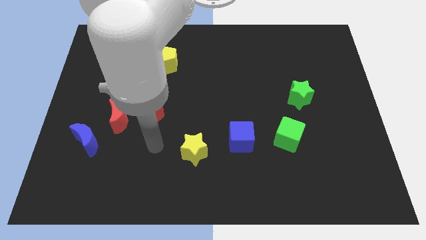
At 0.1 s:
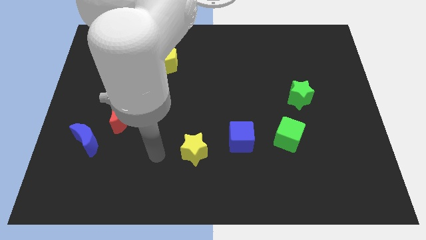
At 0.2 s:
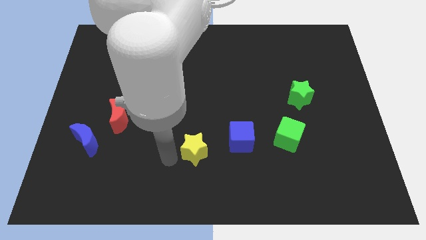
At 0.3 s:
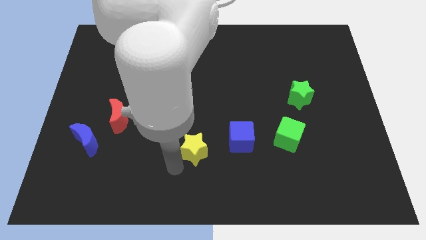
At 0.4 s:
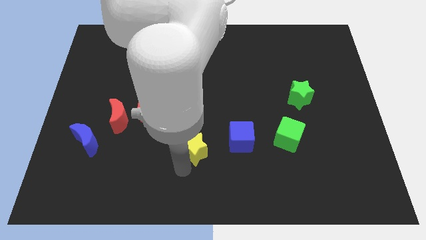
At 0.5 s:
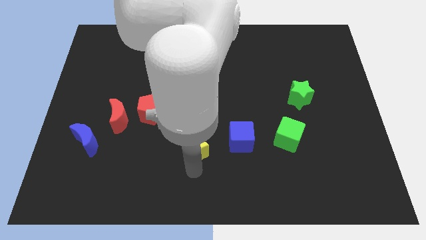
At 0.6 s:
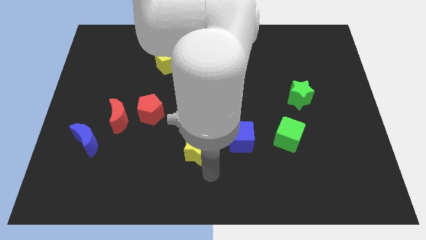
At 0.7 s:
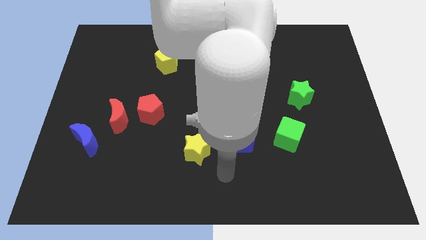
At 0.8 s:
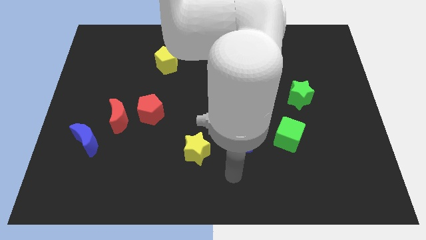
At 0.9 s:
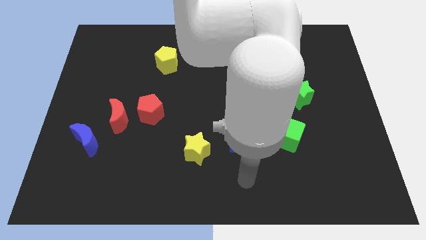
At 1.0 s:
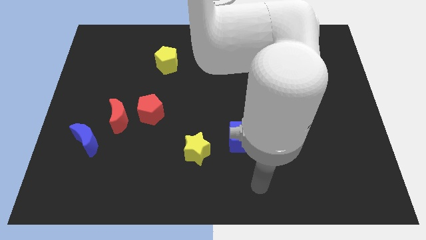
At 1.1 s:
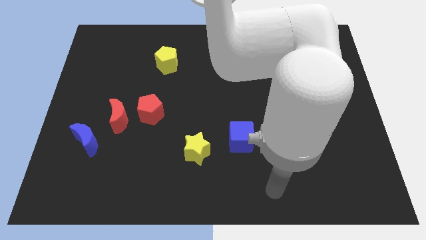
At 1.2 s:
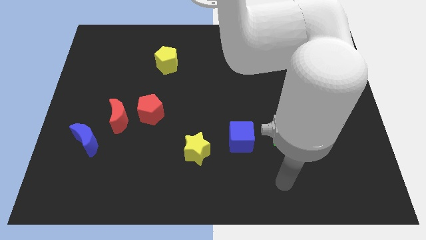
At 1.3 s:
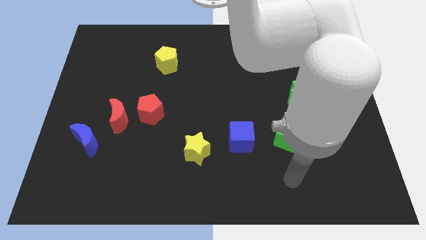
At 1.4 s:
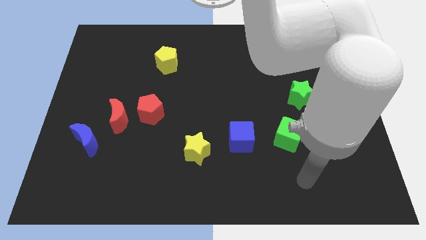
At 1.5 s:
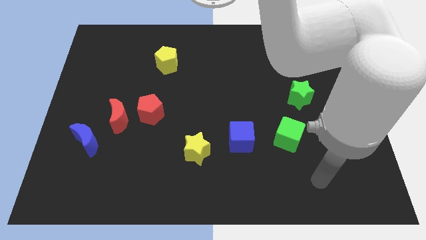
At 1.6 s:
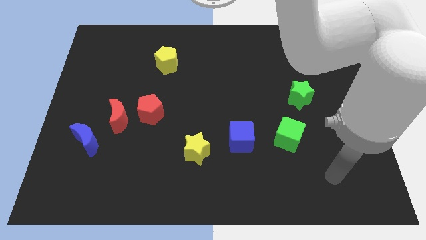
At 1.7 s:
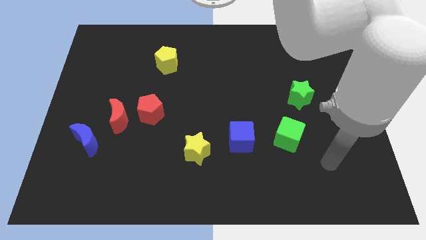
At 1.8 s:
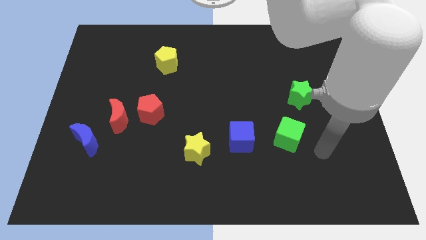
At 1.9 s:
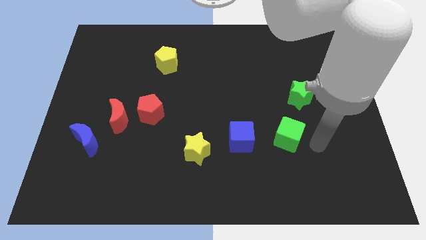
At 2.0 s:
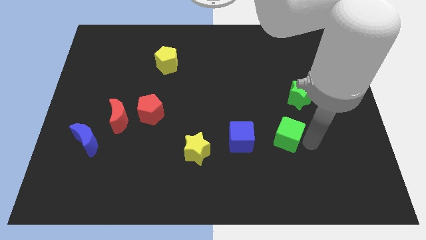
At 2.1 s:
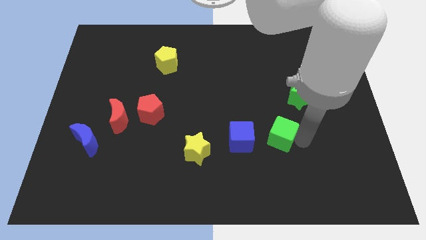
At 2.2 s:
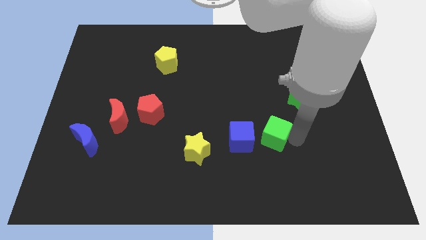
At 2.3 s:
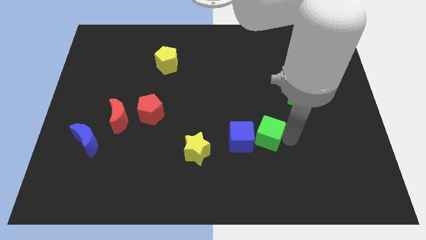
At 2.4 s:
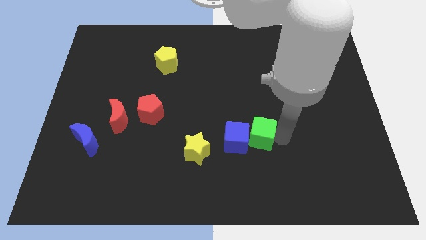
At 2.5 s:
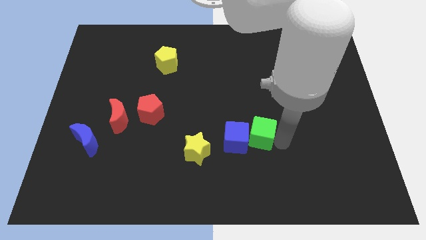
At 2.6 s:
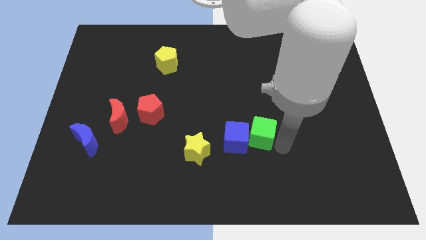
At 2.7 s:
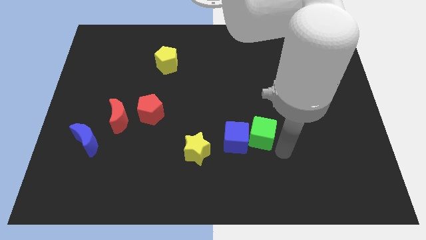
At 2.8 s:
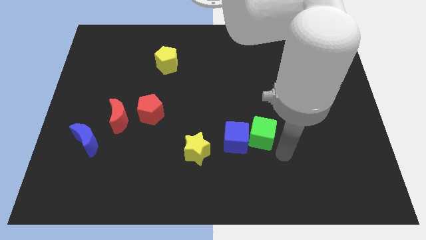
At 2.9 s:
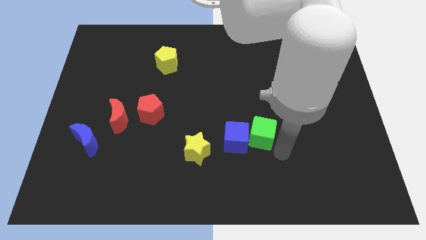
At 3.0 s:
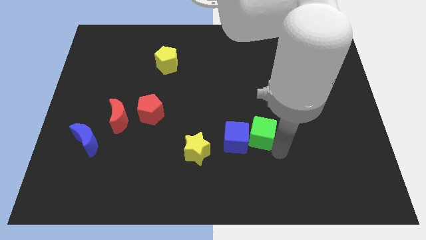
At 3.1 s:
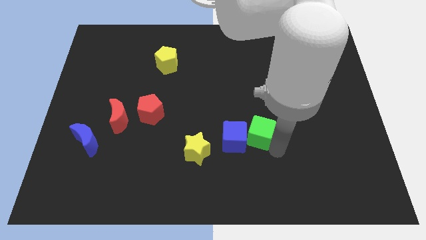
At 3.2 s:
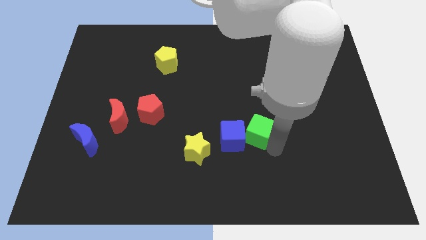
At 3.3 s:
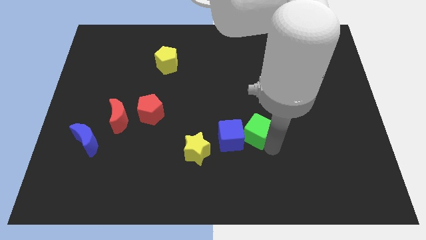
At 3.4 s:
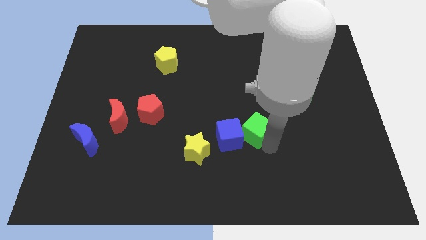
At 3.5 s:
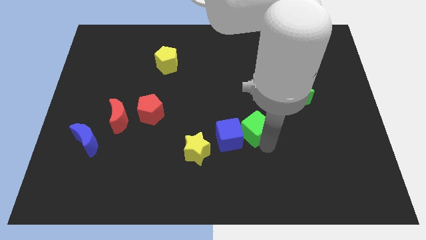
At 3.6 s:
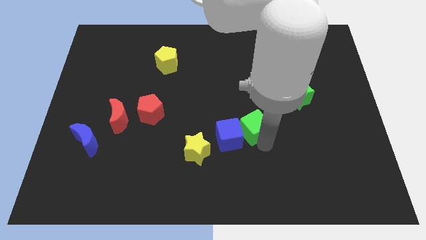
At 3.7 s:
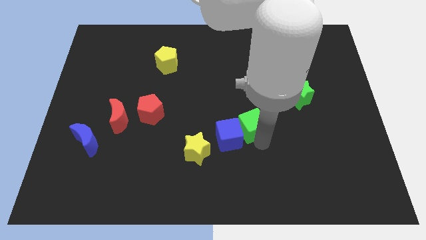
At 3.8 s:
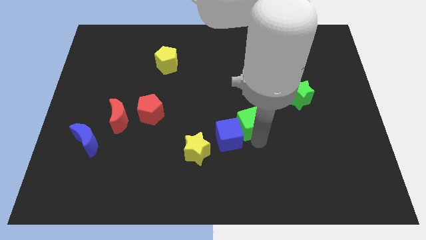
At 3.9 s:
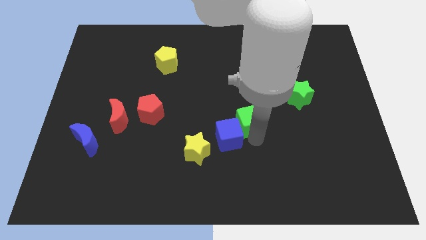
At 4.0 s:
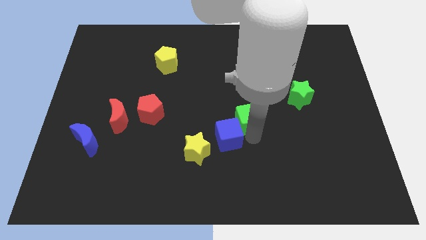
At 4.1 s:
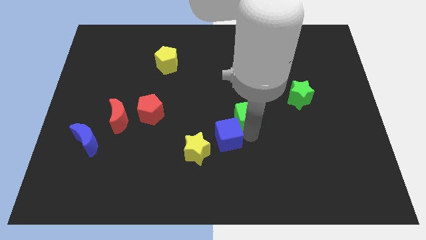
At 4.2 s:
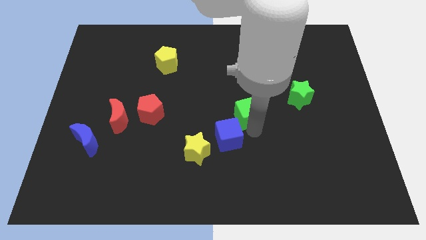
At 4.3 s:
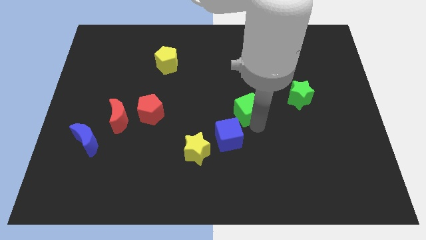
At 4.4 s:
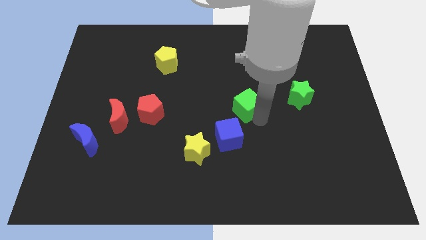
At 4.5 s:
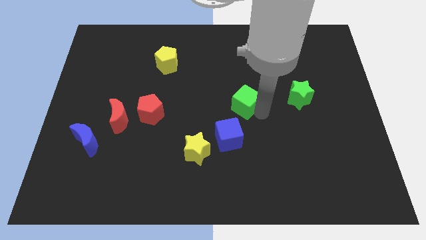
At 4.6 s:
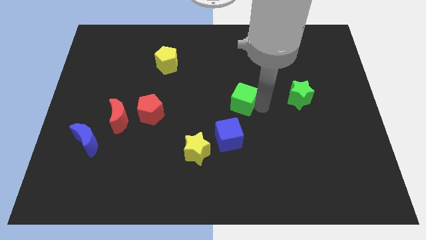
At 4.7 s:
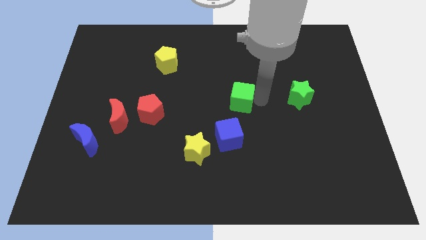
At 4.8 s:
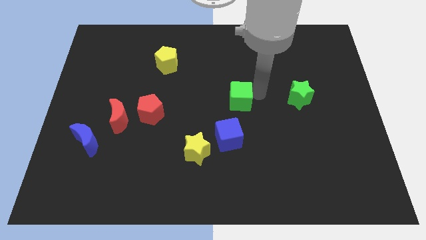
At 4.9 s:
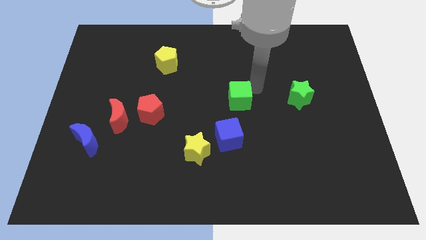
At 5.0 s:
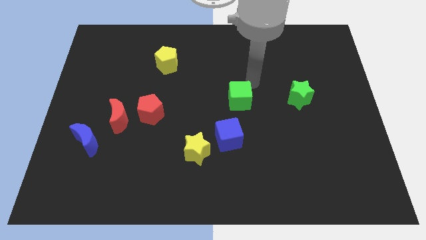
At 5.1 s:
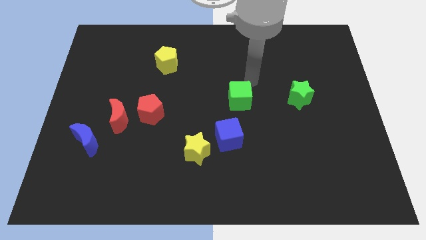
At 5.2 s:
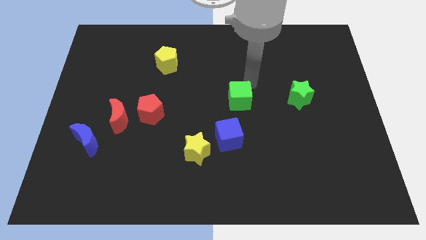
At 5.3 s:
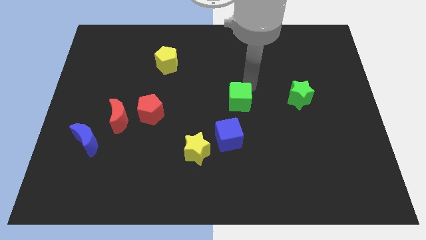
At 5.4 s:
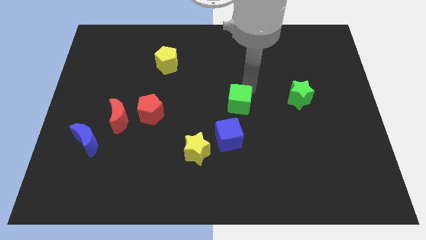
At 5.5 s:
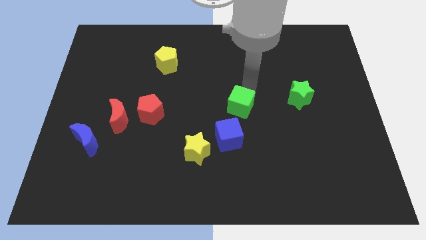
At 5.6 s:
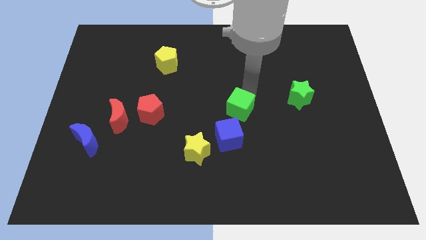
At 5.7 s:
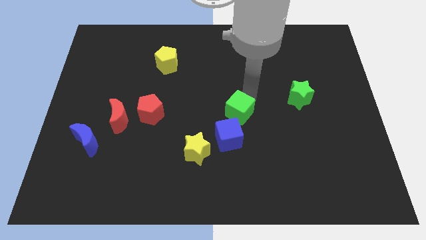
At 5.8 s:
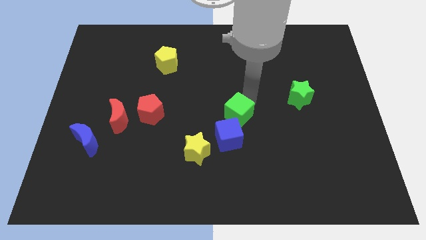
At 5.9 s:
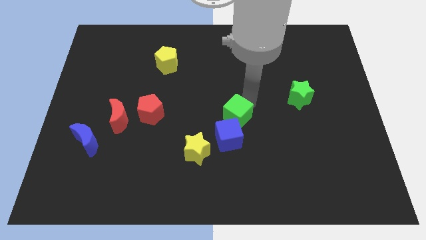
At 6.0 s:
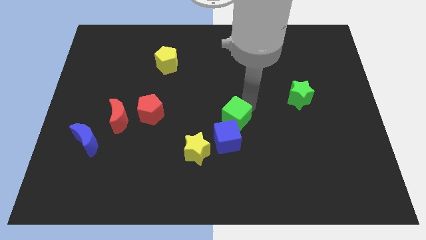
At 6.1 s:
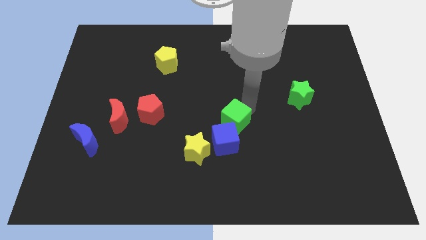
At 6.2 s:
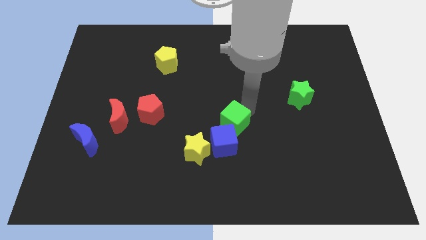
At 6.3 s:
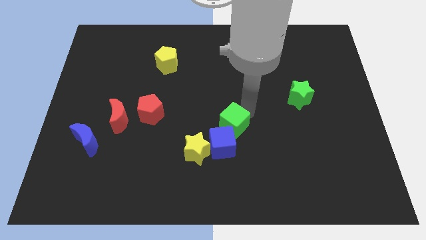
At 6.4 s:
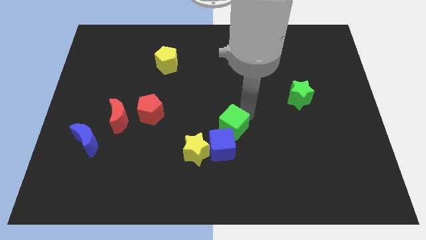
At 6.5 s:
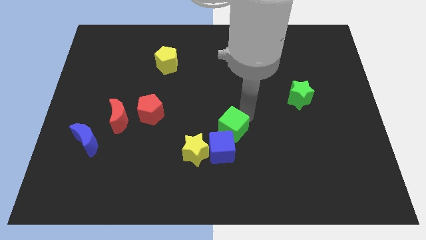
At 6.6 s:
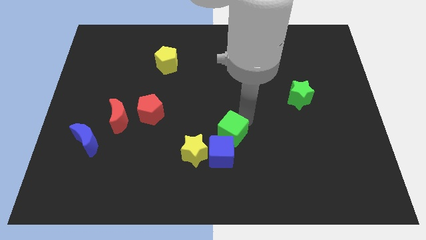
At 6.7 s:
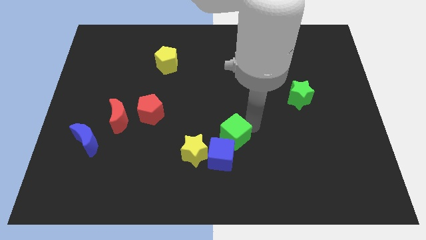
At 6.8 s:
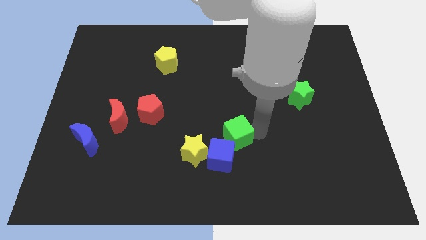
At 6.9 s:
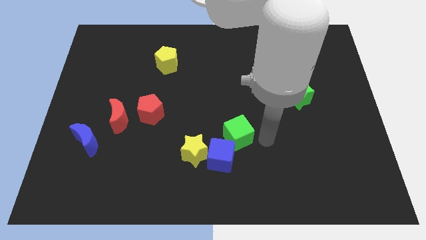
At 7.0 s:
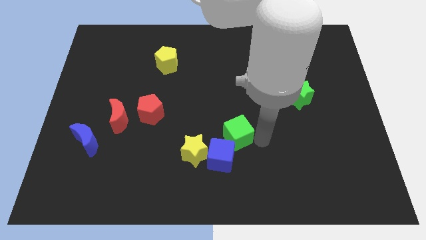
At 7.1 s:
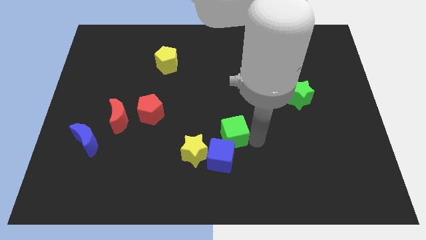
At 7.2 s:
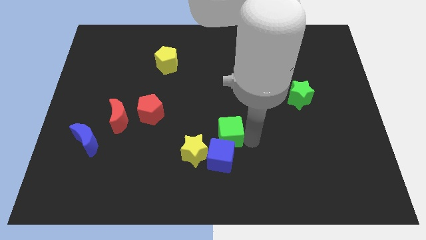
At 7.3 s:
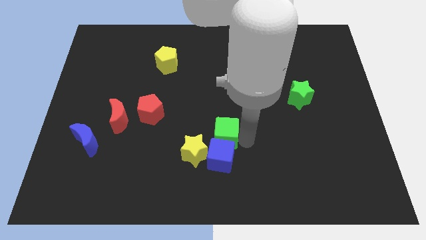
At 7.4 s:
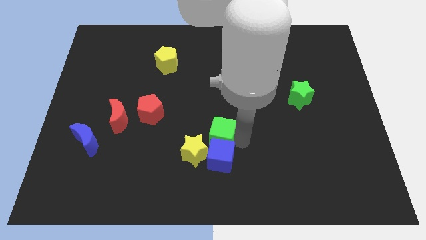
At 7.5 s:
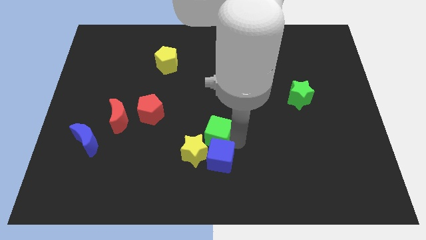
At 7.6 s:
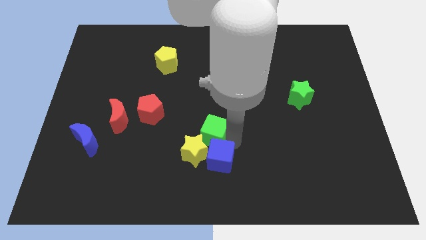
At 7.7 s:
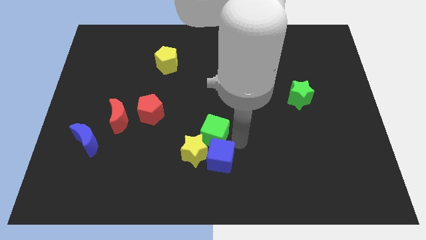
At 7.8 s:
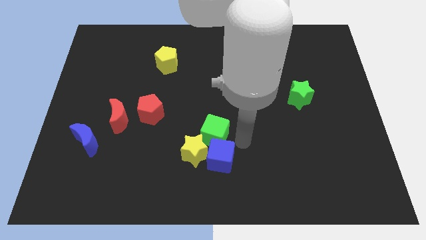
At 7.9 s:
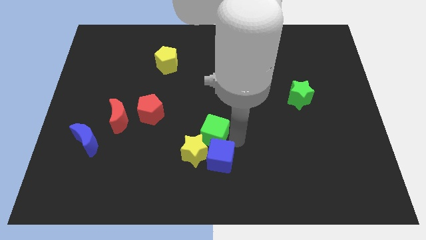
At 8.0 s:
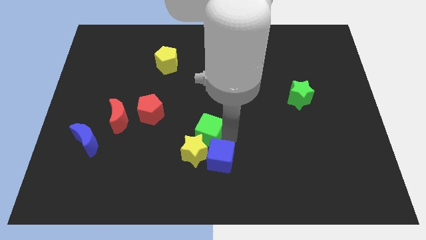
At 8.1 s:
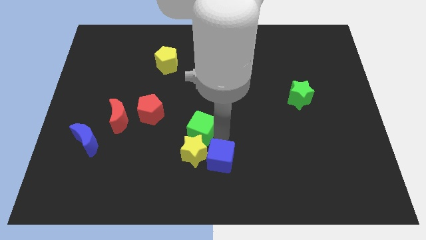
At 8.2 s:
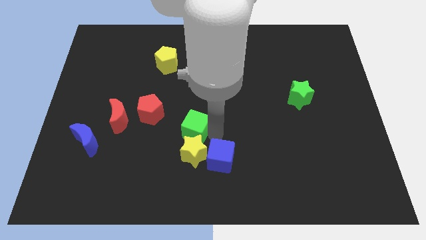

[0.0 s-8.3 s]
slide the green cube to the left

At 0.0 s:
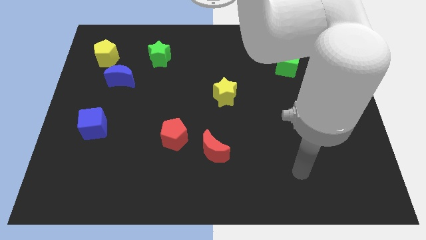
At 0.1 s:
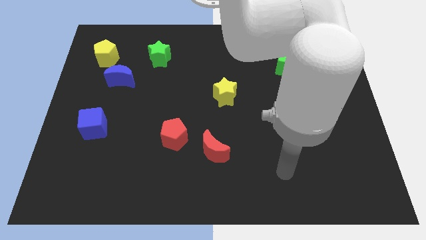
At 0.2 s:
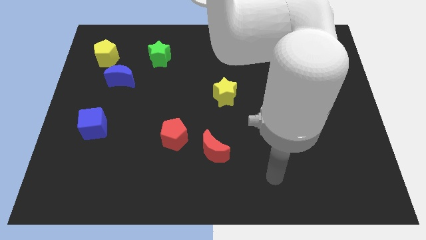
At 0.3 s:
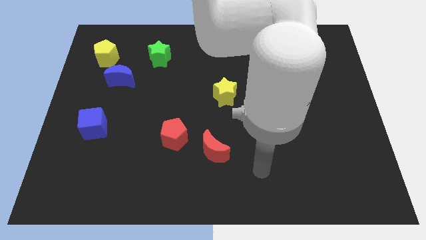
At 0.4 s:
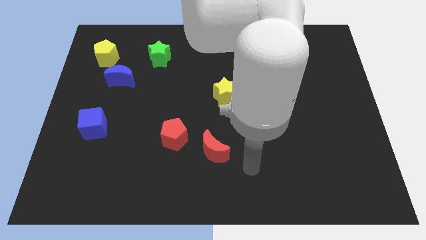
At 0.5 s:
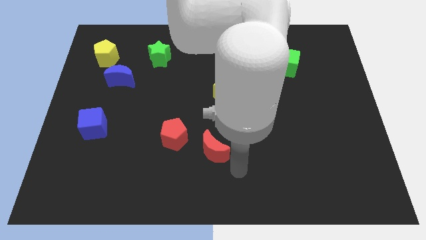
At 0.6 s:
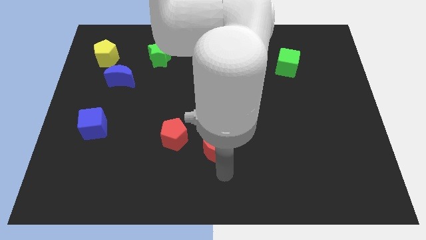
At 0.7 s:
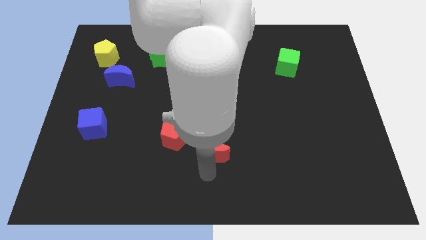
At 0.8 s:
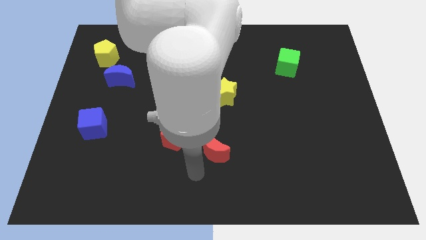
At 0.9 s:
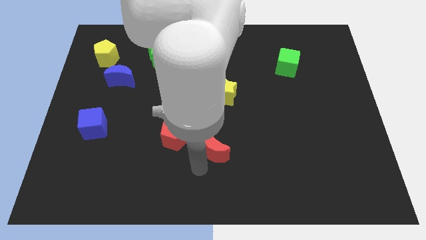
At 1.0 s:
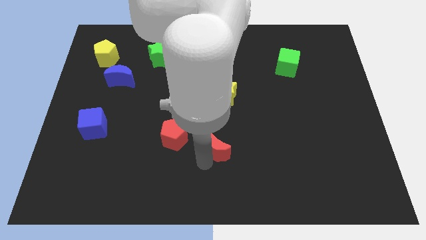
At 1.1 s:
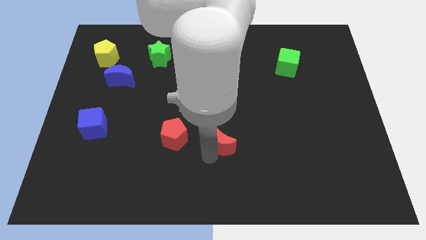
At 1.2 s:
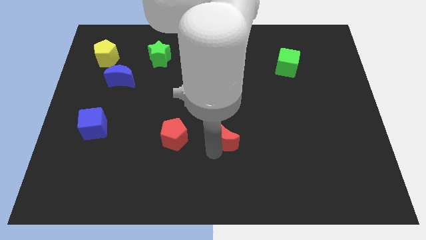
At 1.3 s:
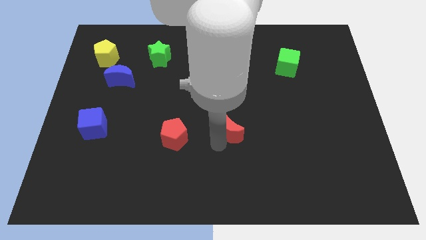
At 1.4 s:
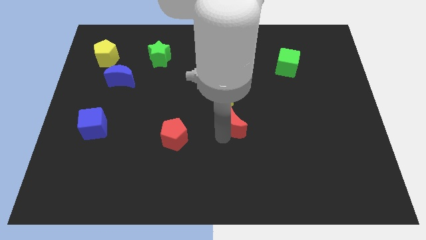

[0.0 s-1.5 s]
slightly push the red moon upwards and to the right diagonally
